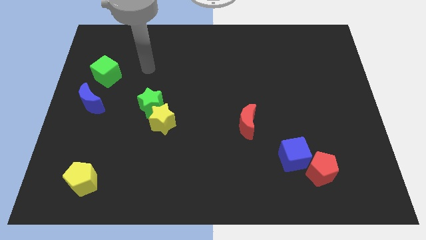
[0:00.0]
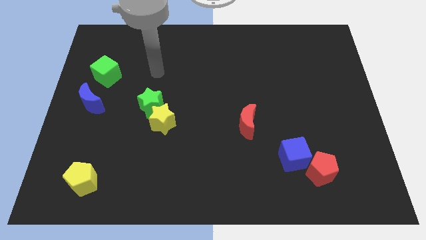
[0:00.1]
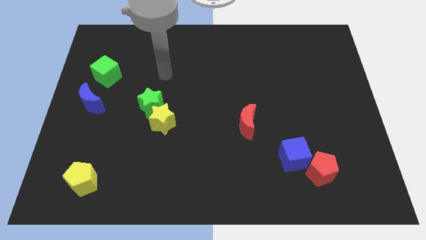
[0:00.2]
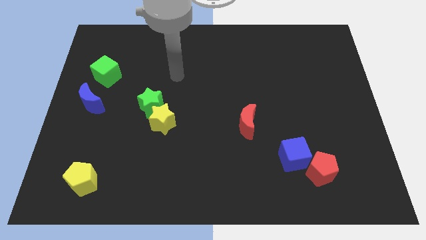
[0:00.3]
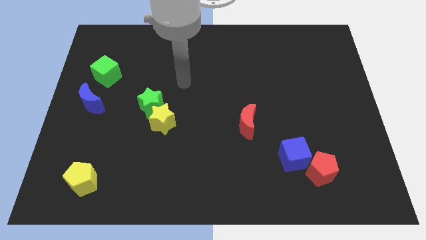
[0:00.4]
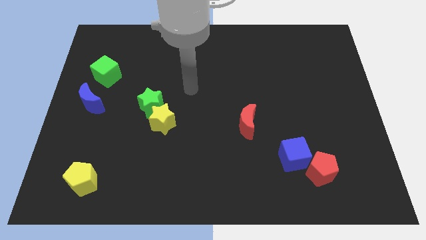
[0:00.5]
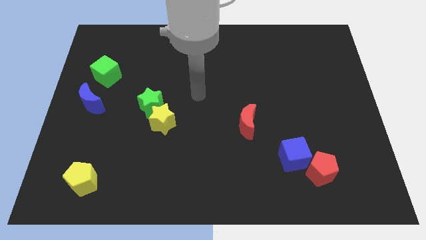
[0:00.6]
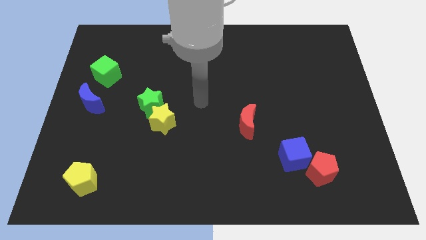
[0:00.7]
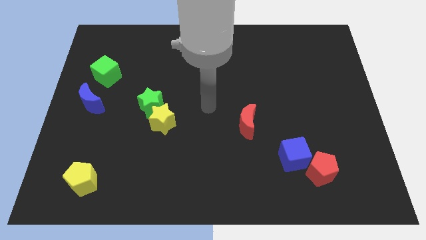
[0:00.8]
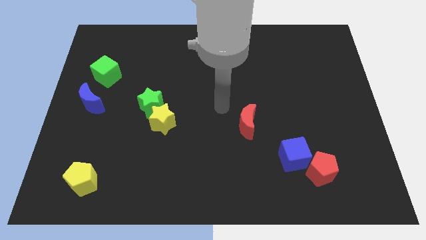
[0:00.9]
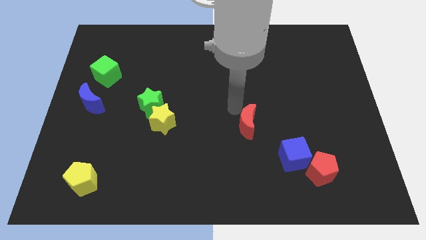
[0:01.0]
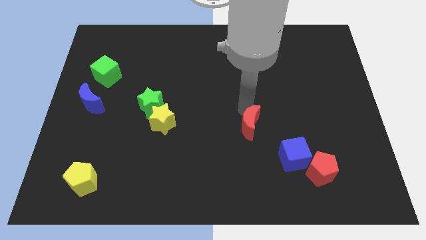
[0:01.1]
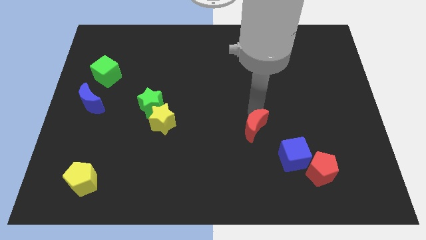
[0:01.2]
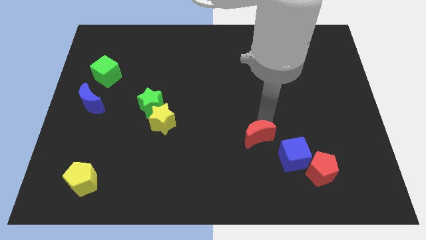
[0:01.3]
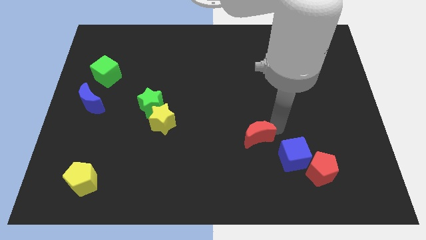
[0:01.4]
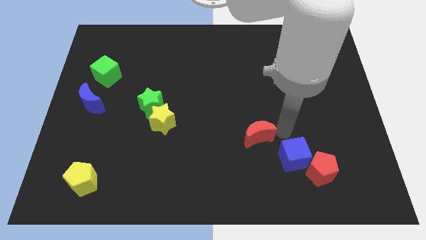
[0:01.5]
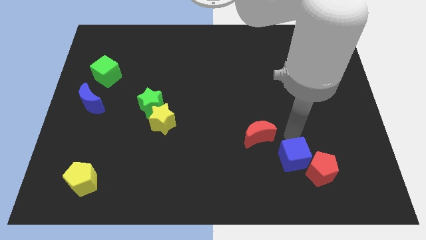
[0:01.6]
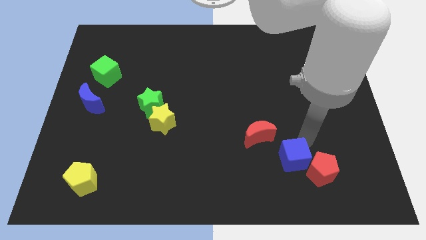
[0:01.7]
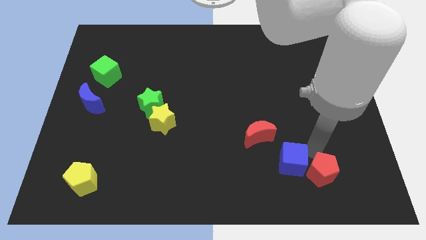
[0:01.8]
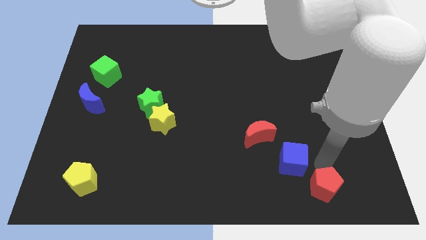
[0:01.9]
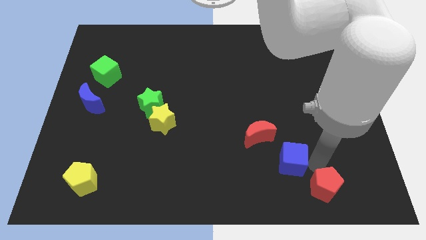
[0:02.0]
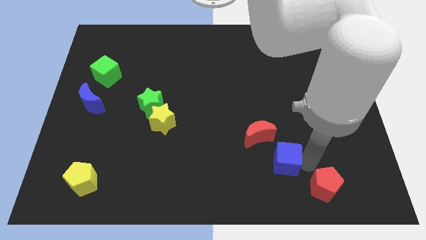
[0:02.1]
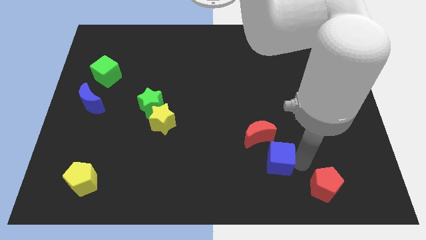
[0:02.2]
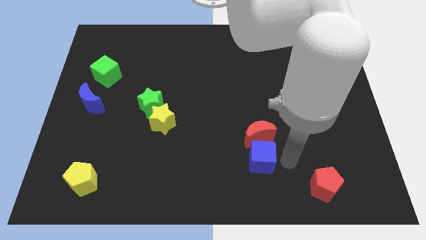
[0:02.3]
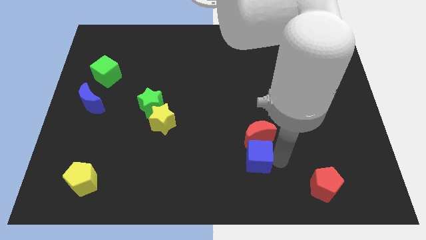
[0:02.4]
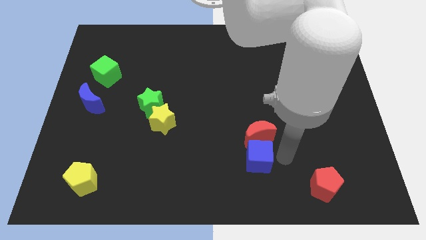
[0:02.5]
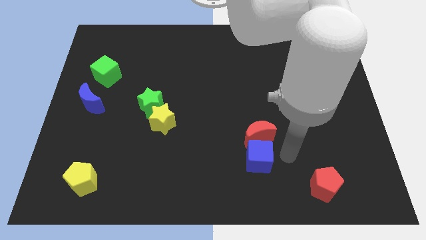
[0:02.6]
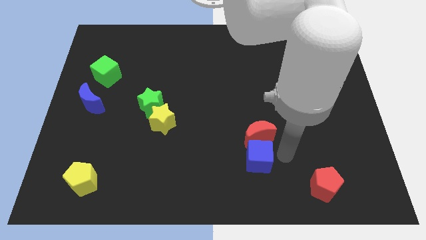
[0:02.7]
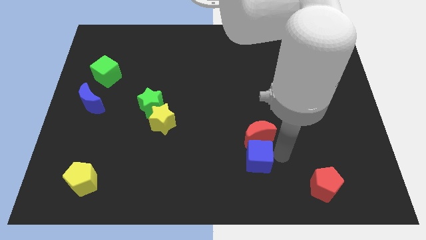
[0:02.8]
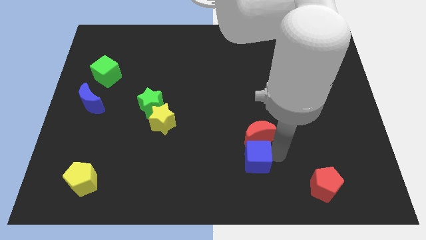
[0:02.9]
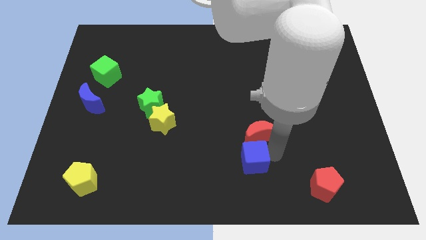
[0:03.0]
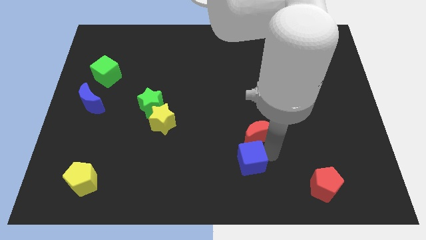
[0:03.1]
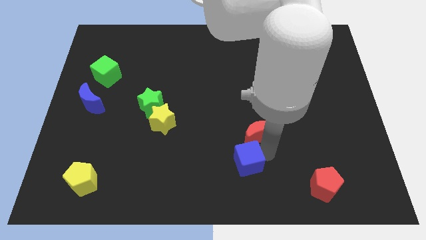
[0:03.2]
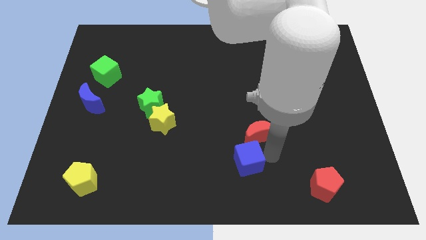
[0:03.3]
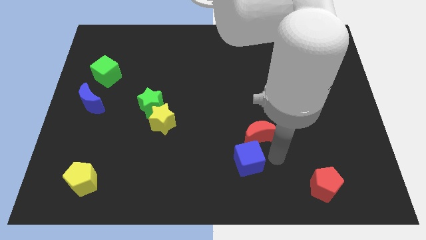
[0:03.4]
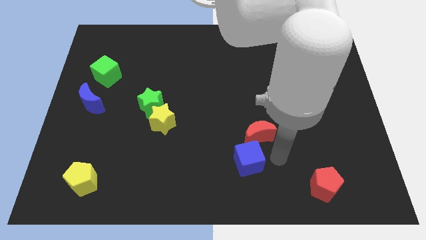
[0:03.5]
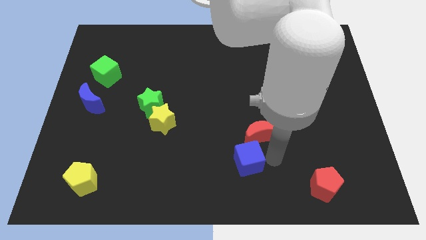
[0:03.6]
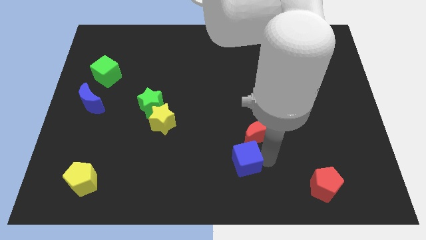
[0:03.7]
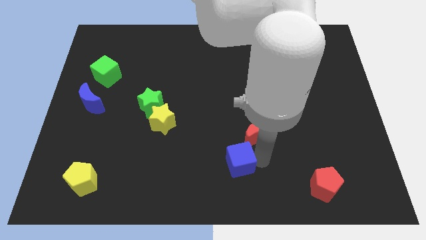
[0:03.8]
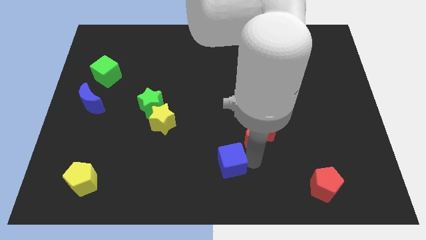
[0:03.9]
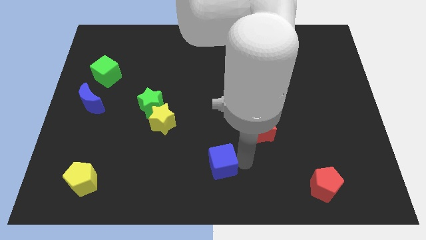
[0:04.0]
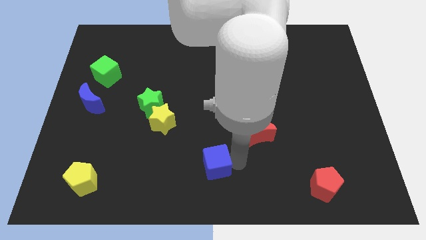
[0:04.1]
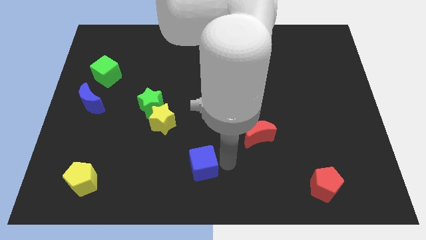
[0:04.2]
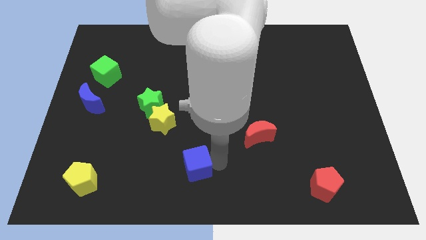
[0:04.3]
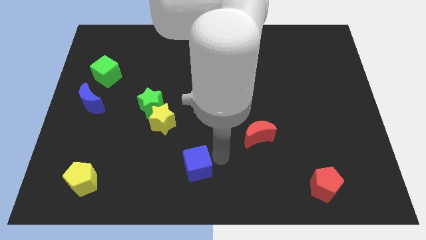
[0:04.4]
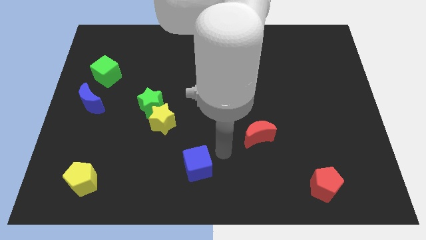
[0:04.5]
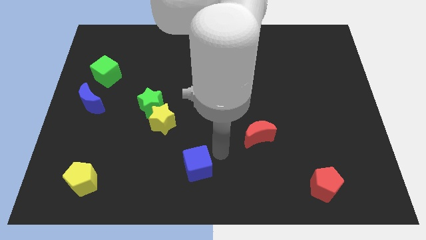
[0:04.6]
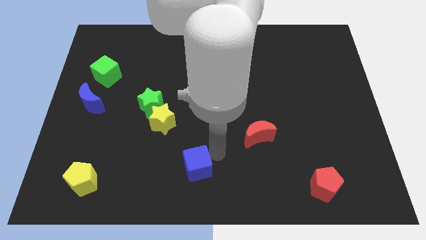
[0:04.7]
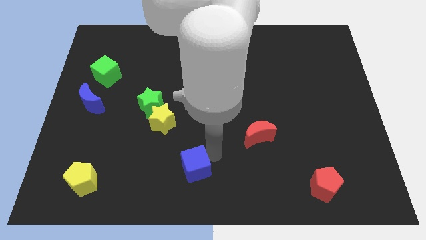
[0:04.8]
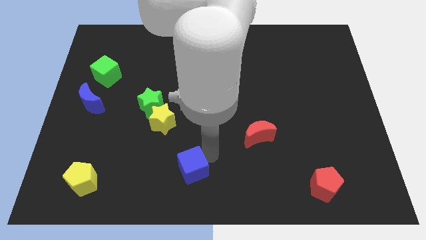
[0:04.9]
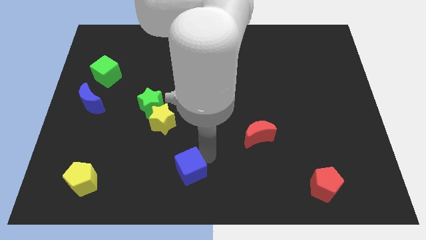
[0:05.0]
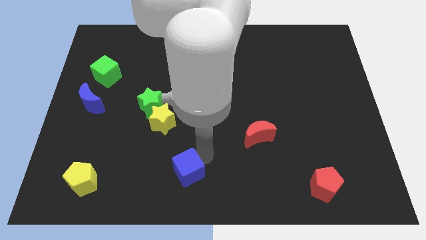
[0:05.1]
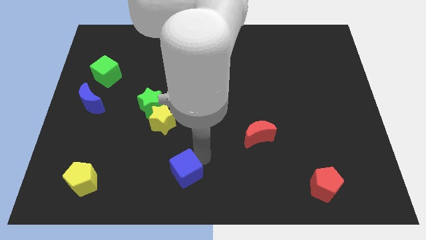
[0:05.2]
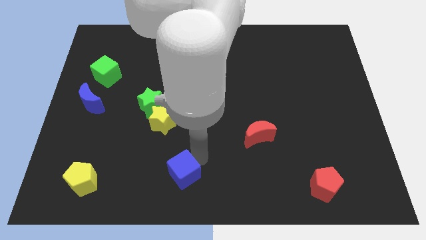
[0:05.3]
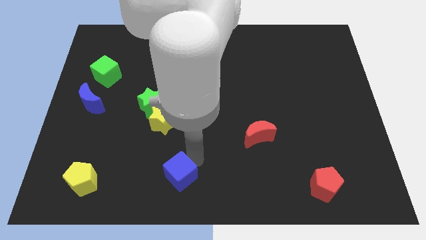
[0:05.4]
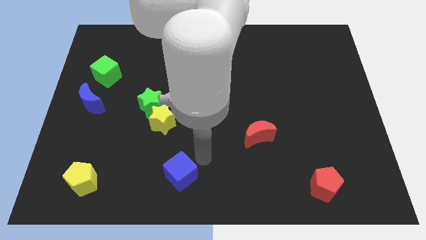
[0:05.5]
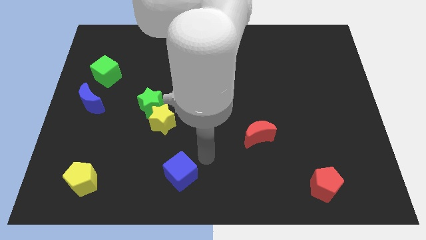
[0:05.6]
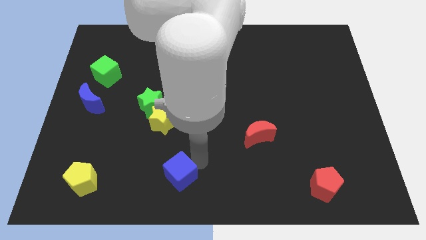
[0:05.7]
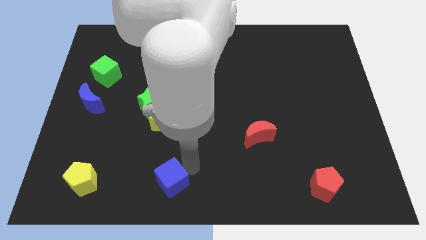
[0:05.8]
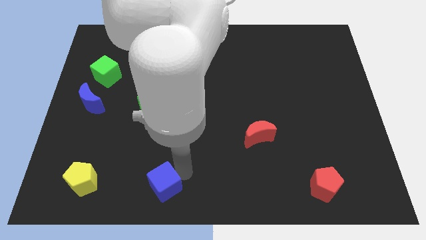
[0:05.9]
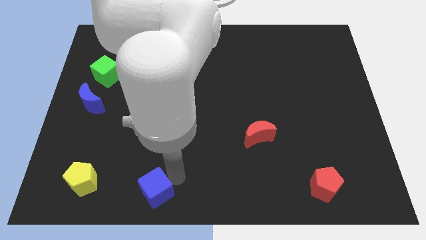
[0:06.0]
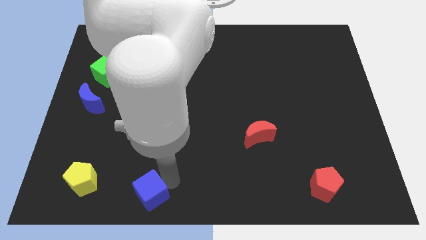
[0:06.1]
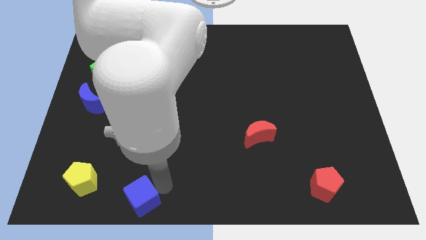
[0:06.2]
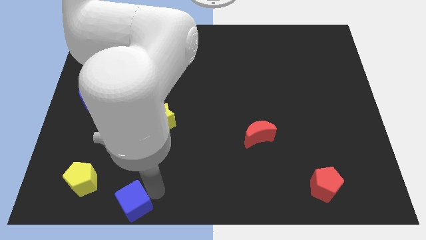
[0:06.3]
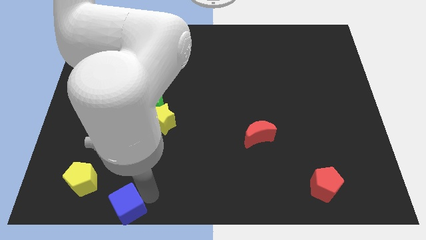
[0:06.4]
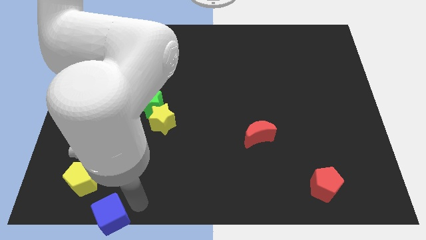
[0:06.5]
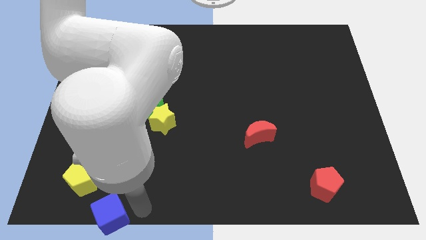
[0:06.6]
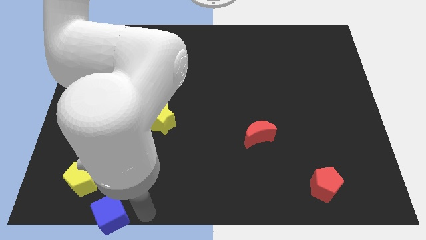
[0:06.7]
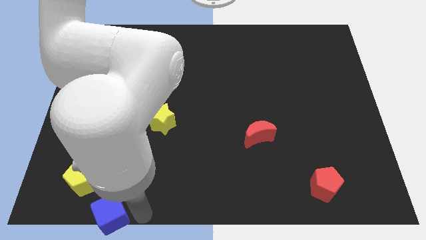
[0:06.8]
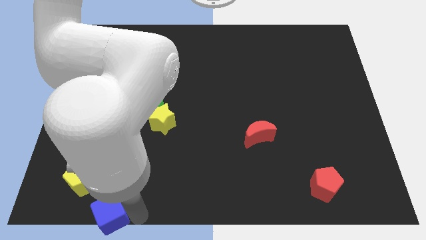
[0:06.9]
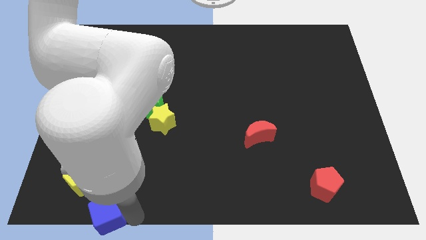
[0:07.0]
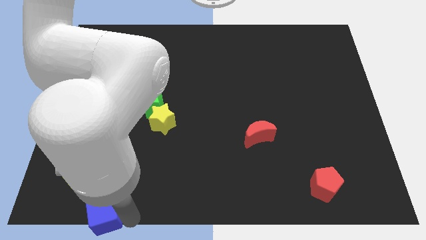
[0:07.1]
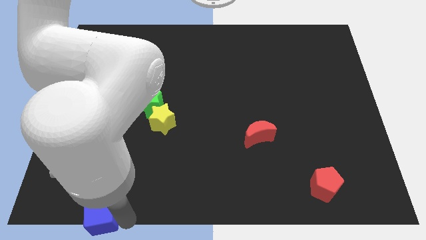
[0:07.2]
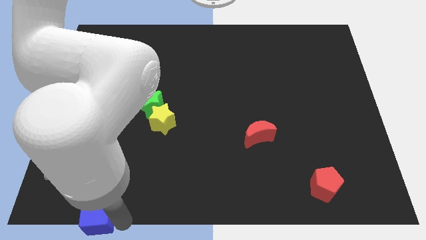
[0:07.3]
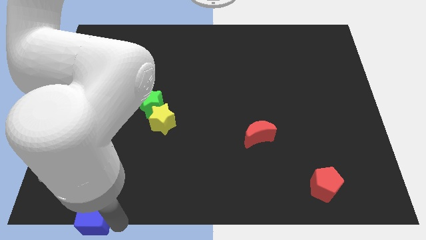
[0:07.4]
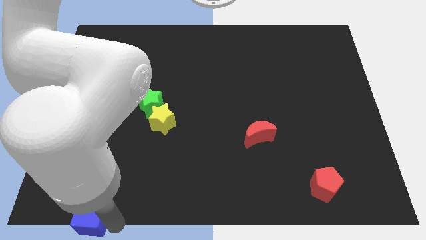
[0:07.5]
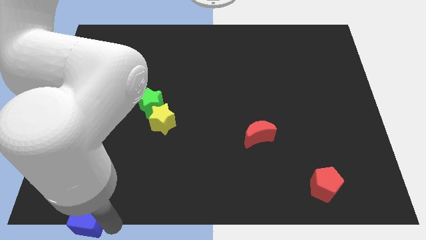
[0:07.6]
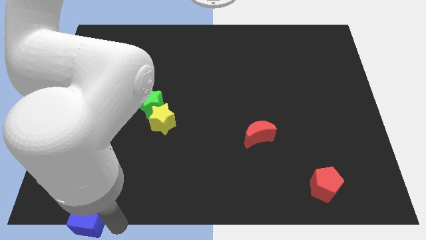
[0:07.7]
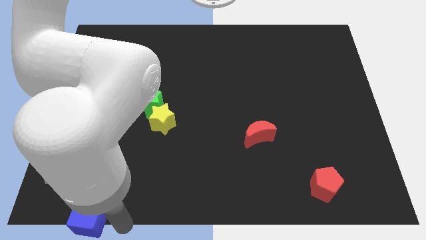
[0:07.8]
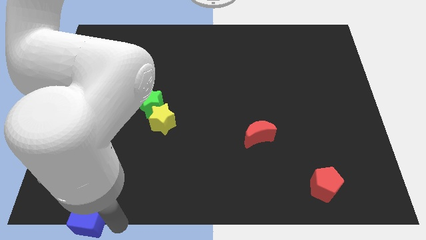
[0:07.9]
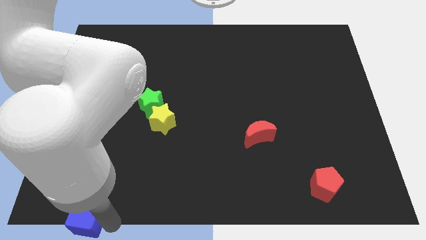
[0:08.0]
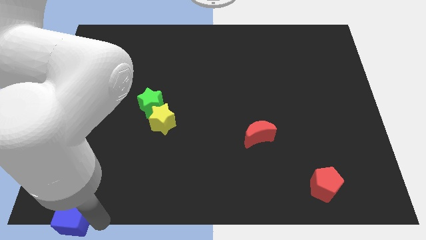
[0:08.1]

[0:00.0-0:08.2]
put the blue cube to the bottom left
